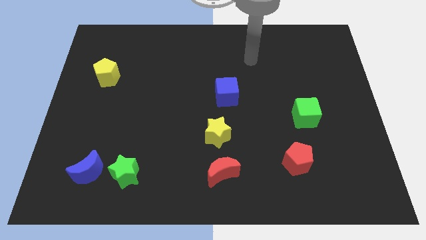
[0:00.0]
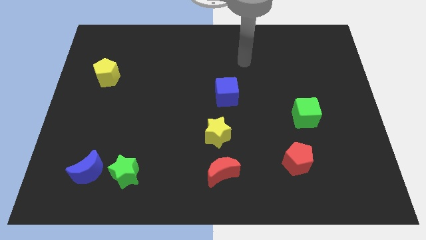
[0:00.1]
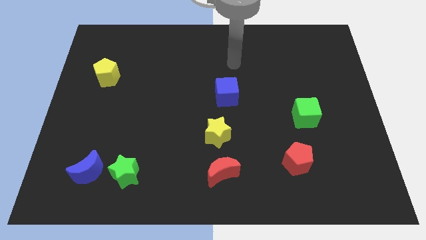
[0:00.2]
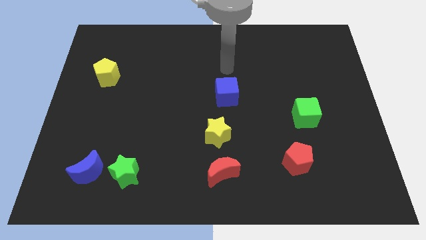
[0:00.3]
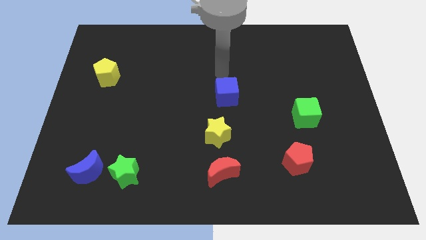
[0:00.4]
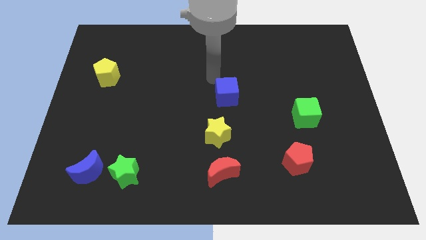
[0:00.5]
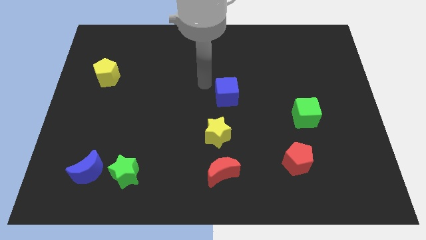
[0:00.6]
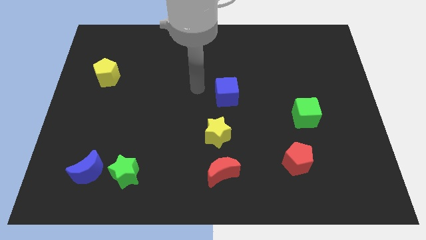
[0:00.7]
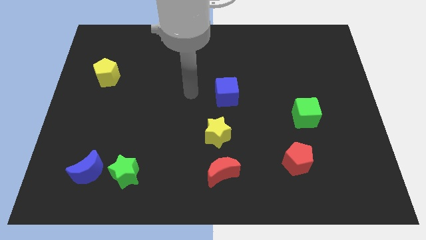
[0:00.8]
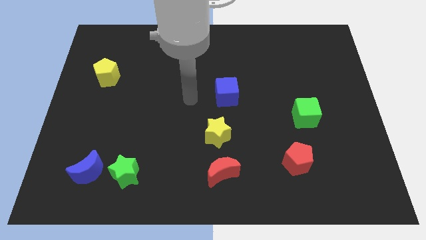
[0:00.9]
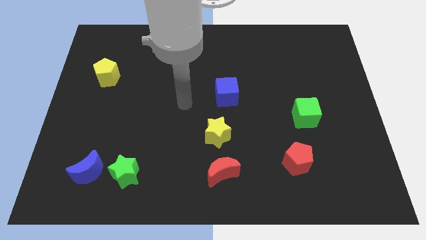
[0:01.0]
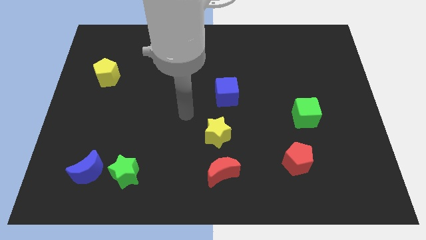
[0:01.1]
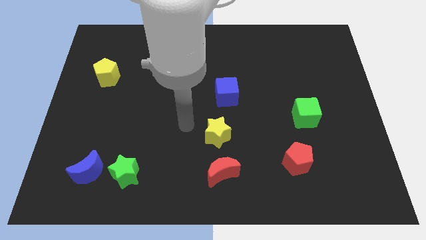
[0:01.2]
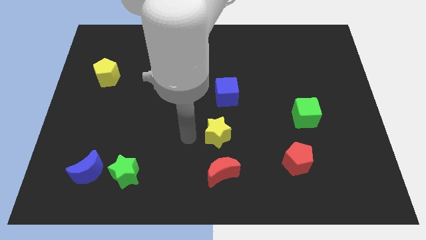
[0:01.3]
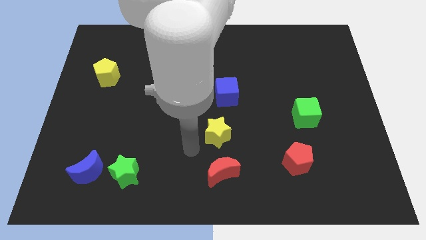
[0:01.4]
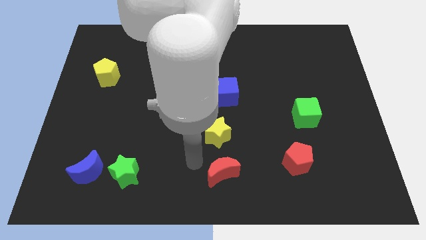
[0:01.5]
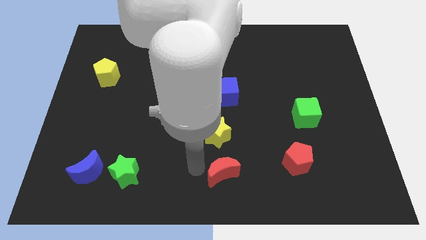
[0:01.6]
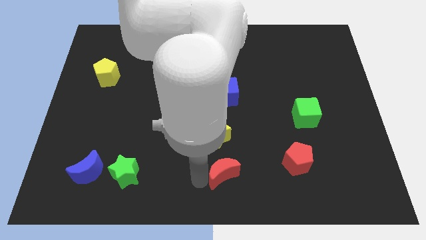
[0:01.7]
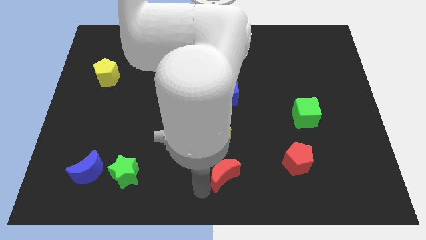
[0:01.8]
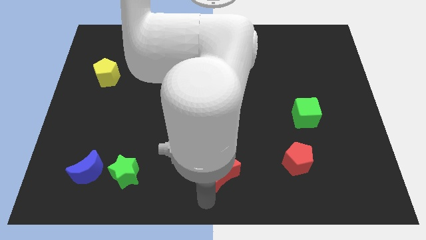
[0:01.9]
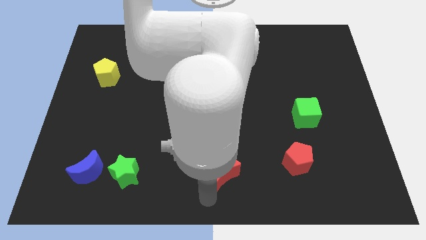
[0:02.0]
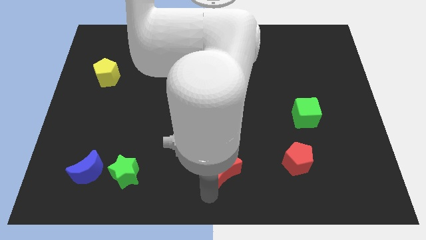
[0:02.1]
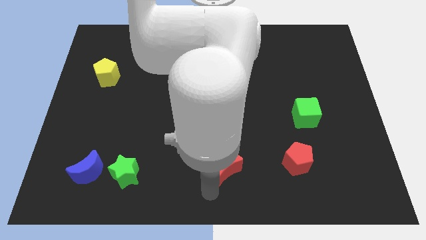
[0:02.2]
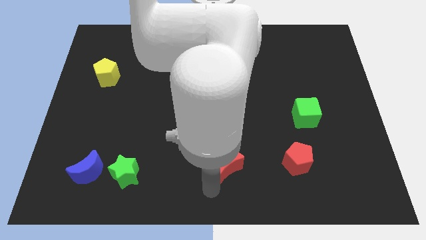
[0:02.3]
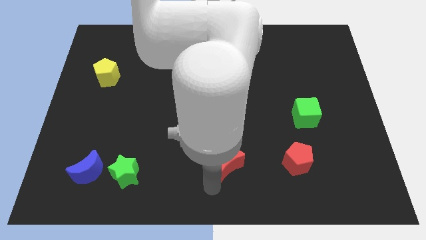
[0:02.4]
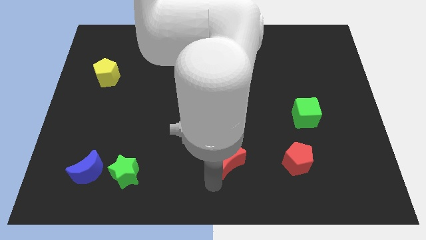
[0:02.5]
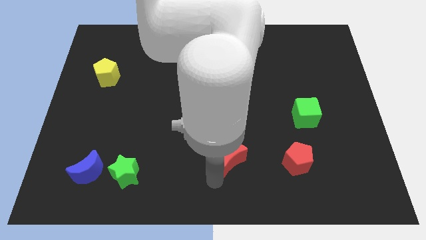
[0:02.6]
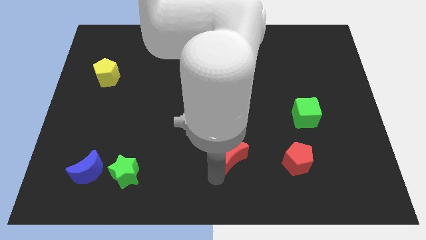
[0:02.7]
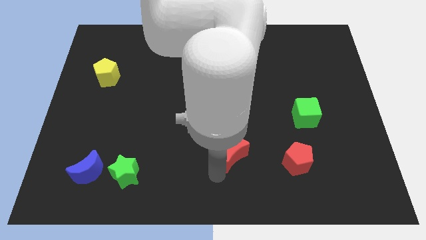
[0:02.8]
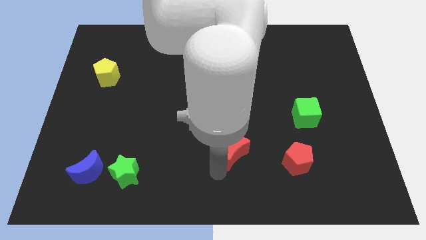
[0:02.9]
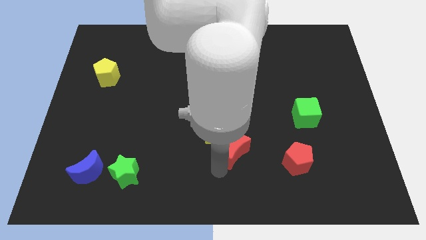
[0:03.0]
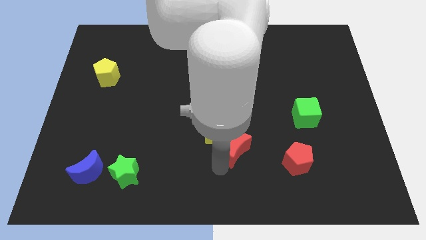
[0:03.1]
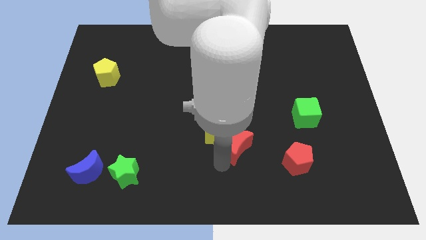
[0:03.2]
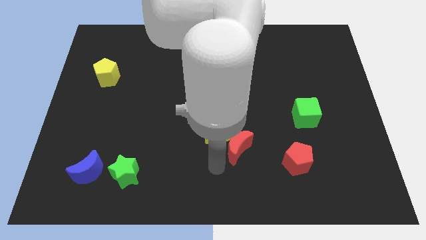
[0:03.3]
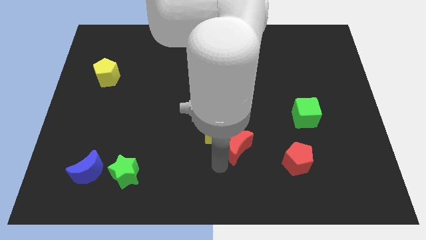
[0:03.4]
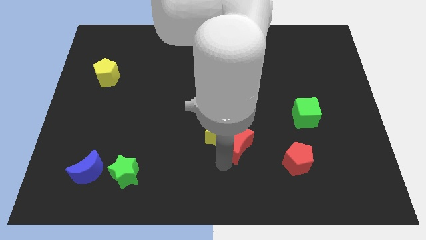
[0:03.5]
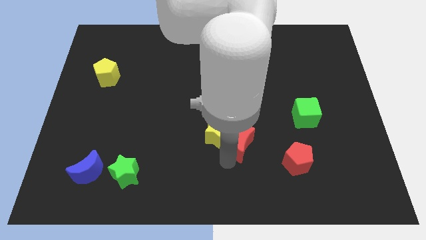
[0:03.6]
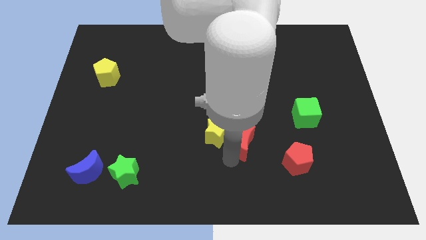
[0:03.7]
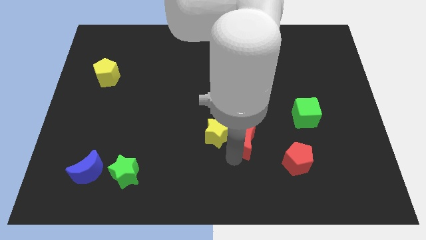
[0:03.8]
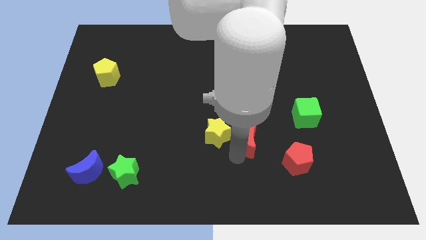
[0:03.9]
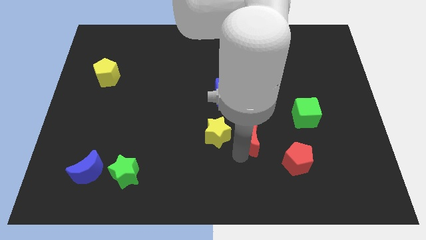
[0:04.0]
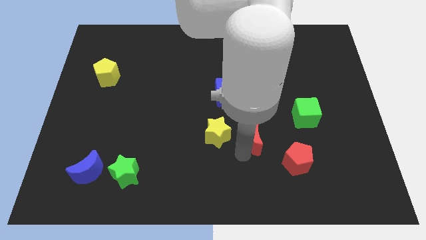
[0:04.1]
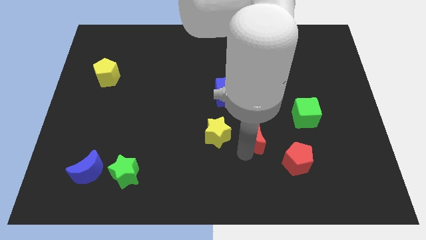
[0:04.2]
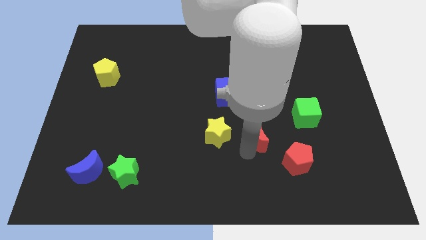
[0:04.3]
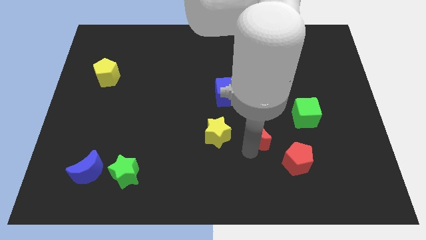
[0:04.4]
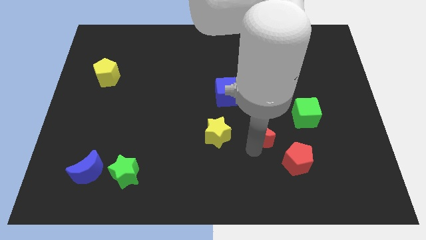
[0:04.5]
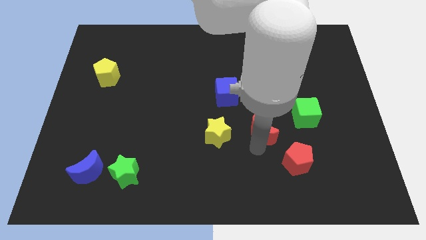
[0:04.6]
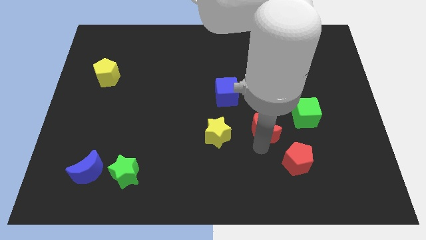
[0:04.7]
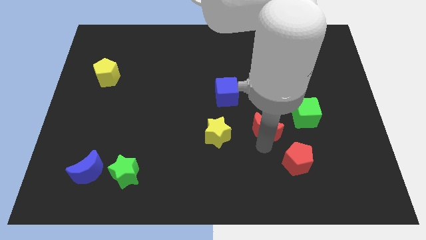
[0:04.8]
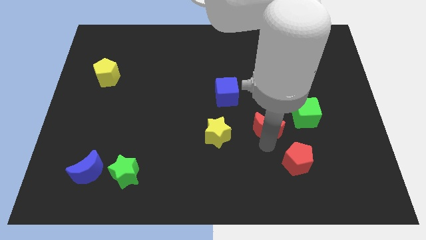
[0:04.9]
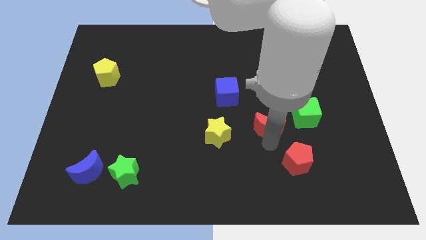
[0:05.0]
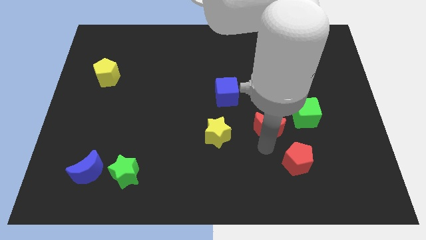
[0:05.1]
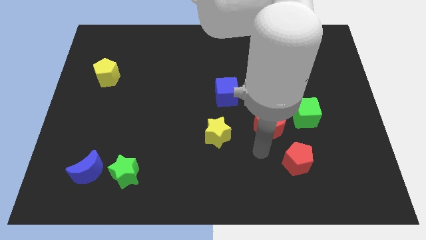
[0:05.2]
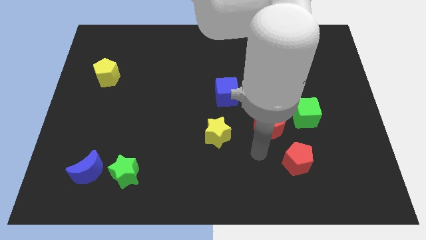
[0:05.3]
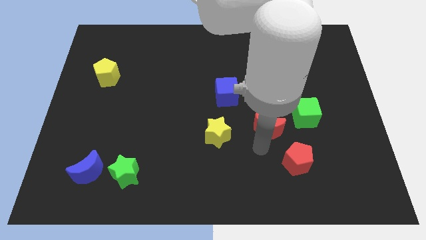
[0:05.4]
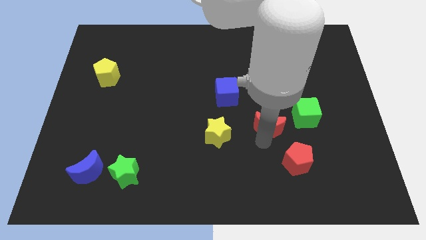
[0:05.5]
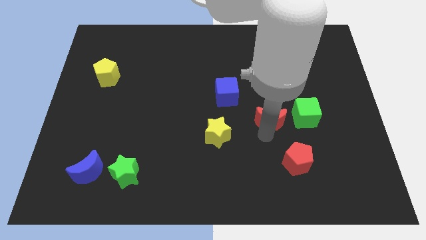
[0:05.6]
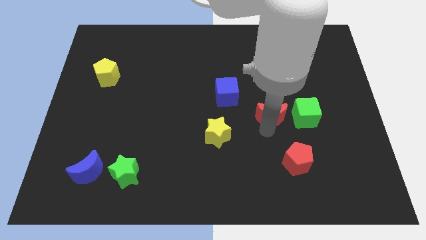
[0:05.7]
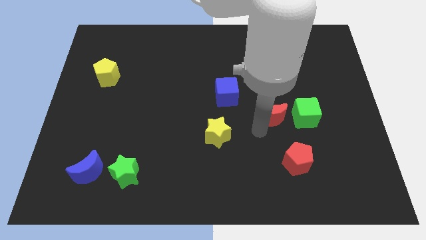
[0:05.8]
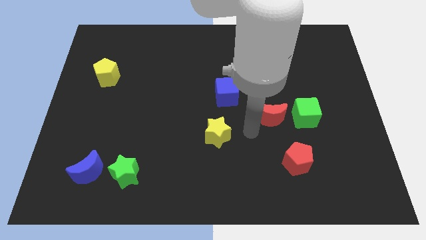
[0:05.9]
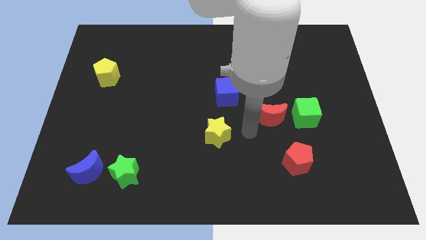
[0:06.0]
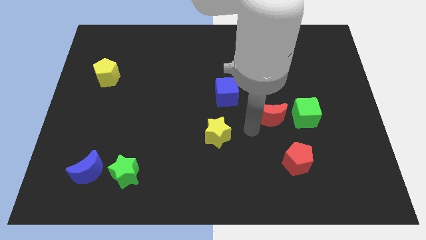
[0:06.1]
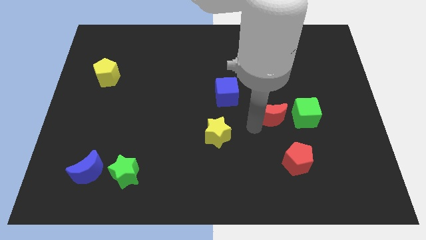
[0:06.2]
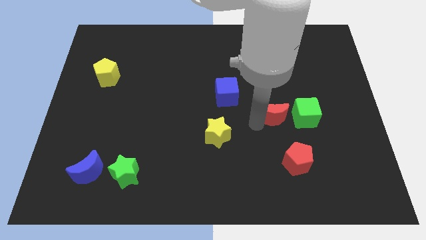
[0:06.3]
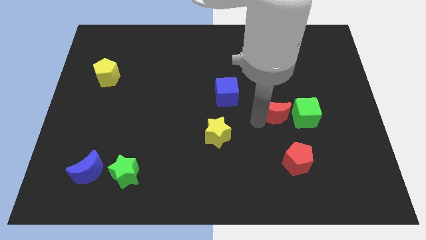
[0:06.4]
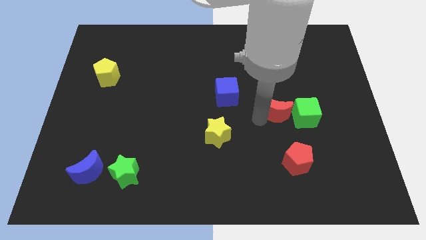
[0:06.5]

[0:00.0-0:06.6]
slide the red moon upwards and to the right diagonally

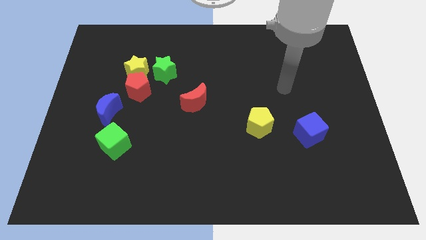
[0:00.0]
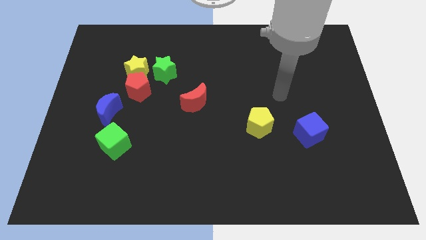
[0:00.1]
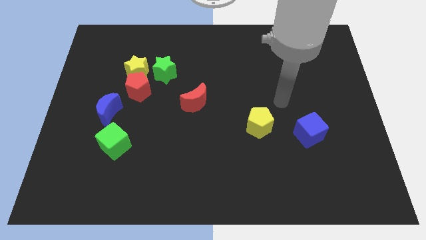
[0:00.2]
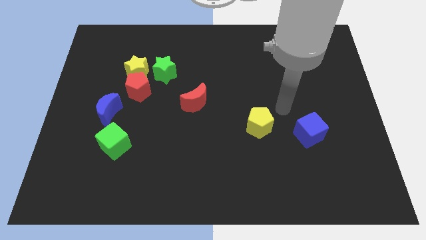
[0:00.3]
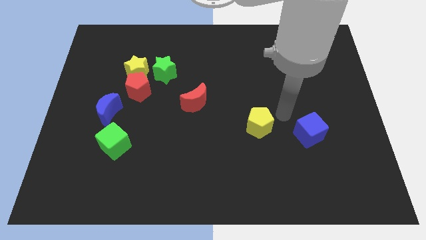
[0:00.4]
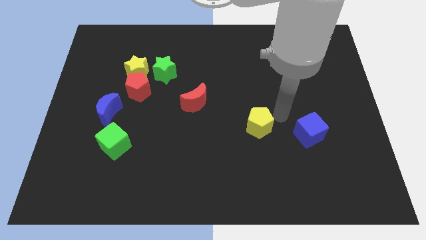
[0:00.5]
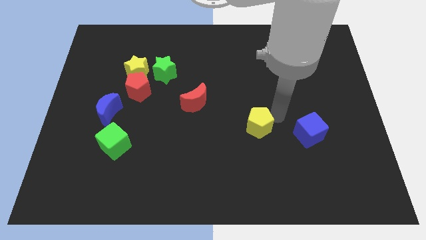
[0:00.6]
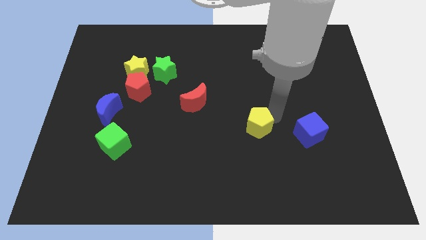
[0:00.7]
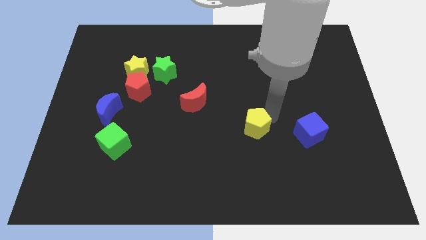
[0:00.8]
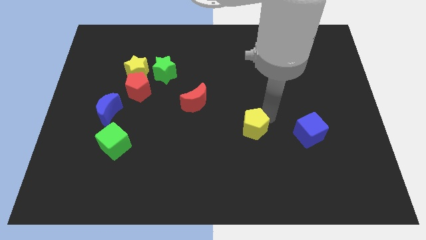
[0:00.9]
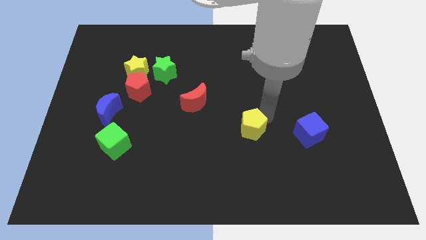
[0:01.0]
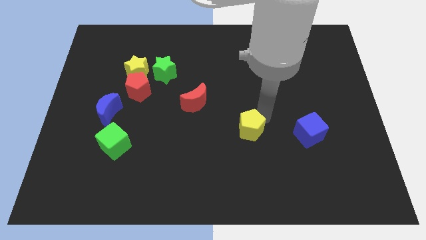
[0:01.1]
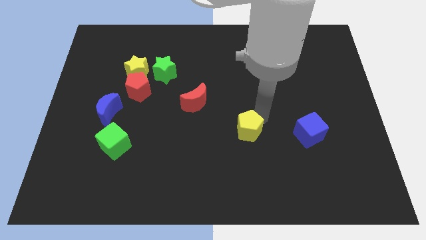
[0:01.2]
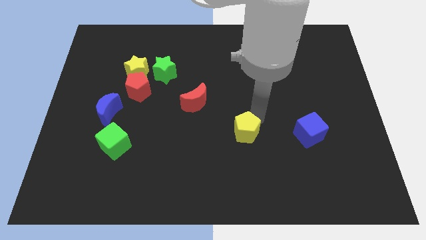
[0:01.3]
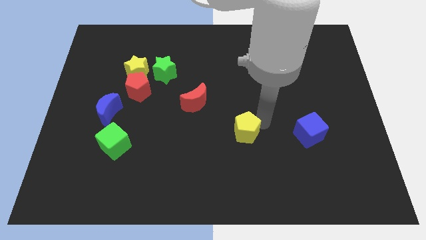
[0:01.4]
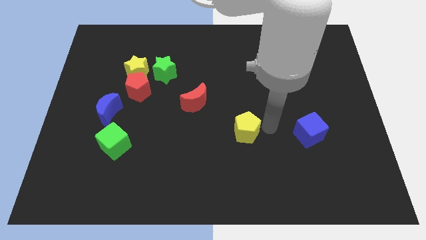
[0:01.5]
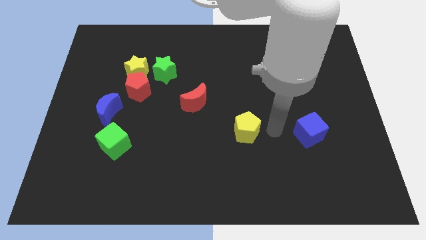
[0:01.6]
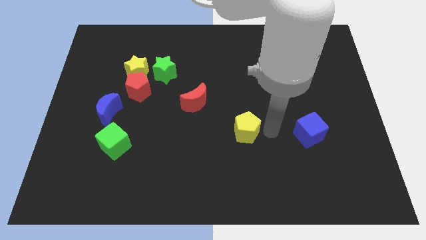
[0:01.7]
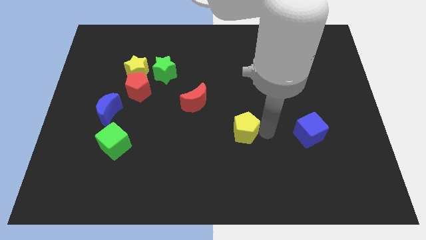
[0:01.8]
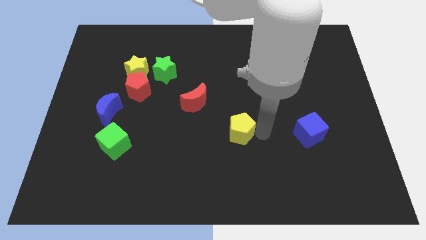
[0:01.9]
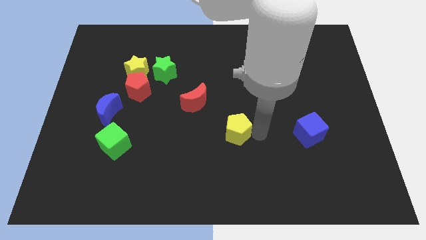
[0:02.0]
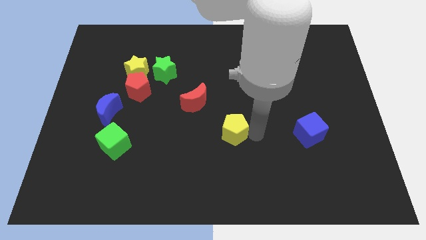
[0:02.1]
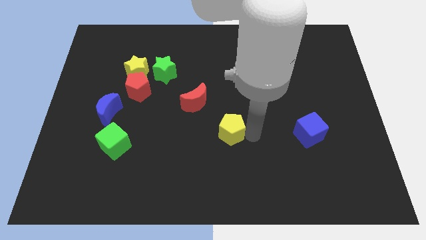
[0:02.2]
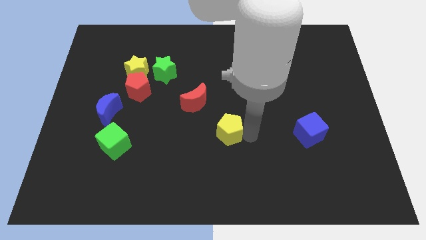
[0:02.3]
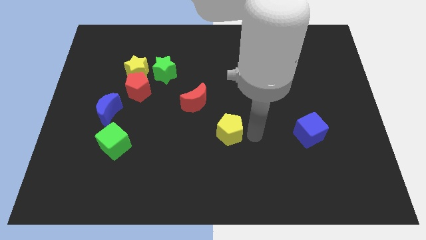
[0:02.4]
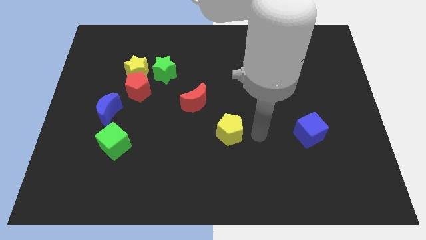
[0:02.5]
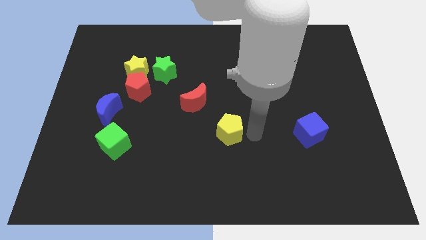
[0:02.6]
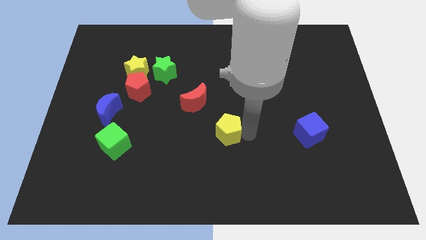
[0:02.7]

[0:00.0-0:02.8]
slightly move the yellow pentagon to the left
